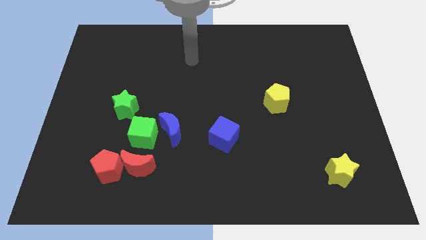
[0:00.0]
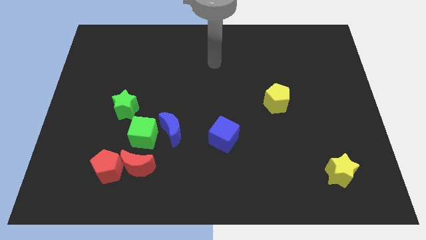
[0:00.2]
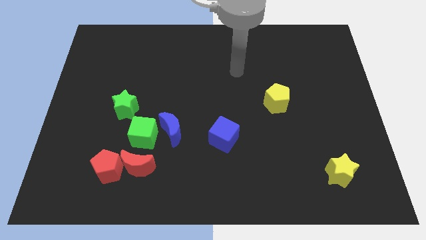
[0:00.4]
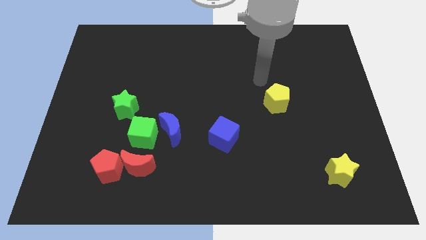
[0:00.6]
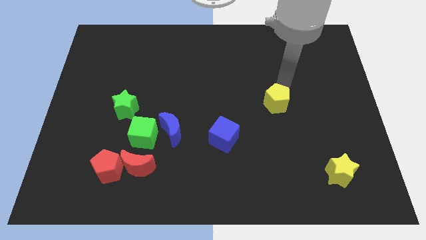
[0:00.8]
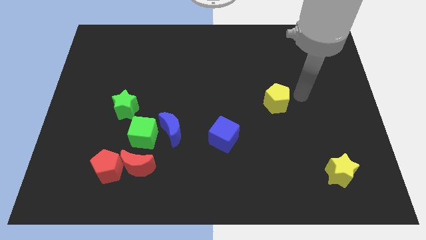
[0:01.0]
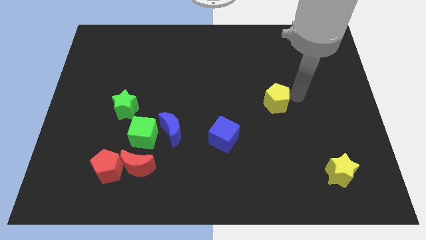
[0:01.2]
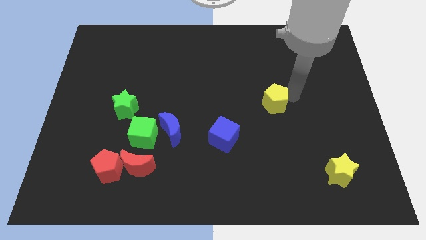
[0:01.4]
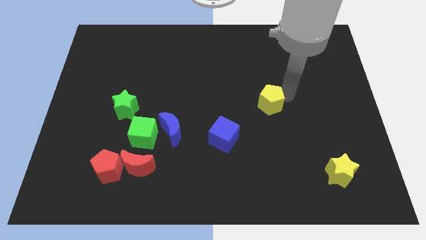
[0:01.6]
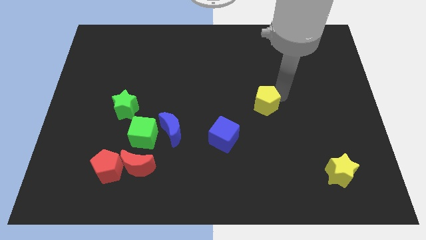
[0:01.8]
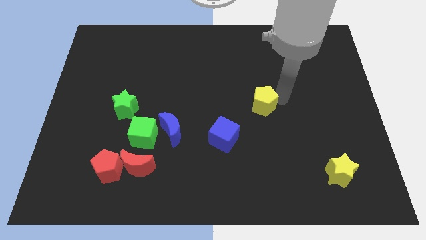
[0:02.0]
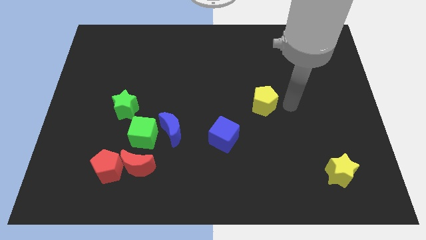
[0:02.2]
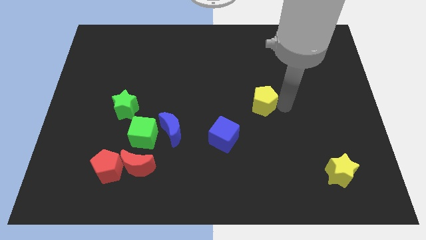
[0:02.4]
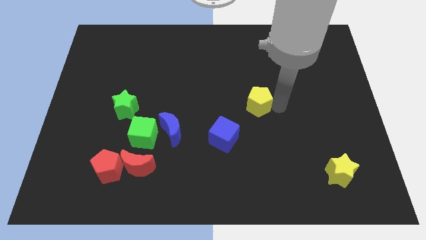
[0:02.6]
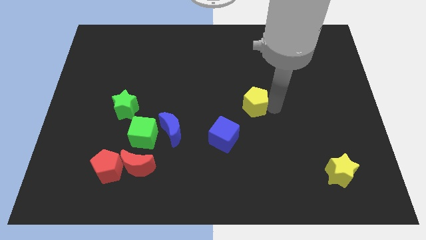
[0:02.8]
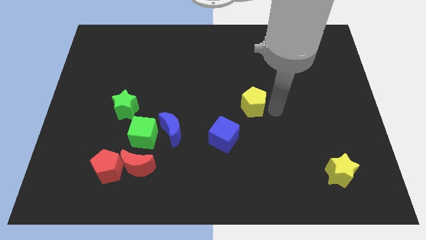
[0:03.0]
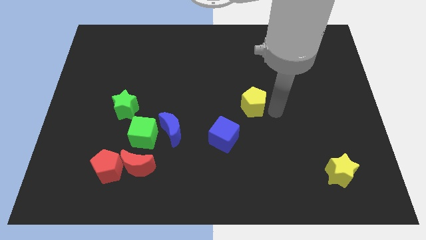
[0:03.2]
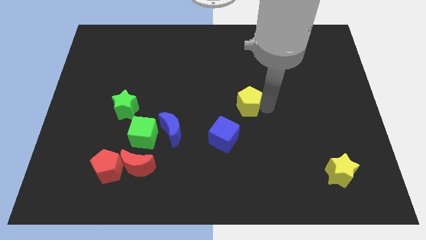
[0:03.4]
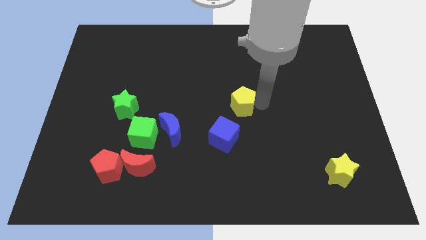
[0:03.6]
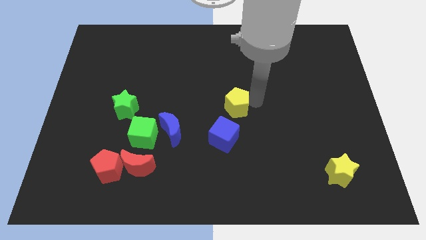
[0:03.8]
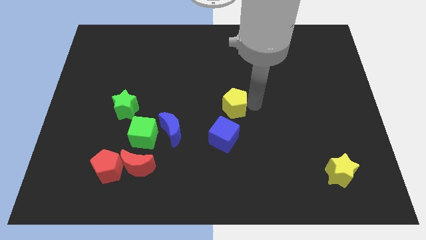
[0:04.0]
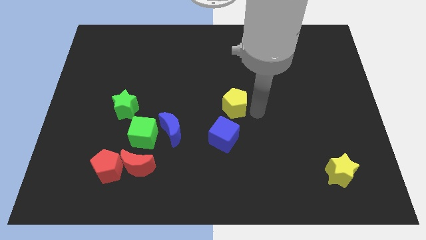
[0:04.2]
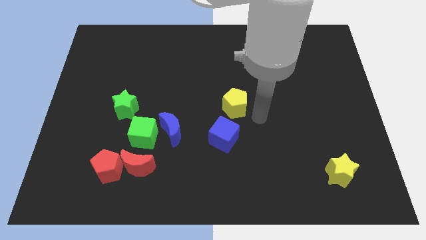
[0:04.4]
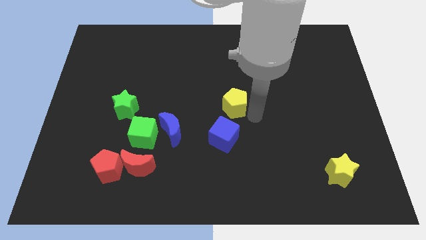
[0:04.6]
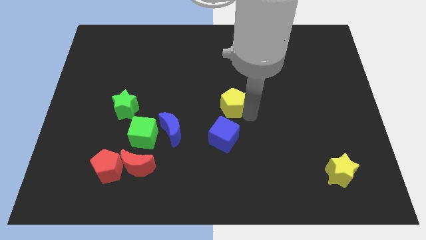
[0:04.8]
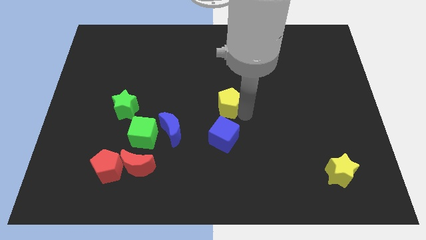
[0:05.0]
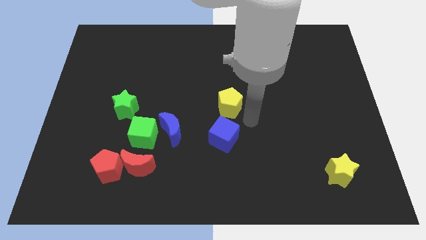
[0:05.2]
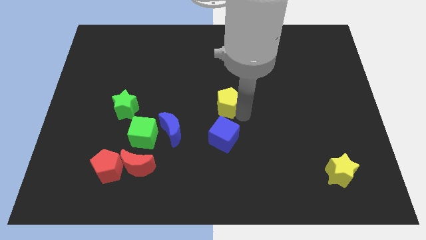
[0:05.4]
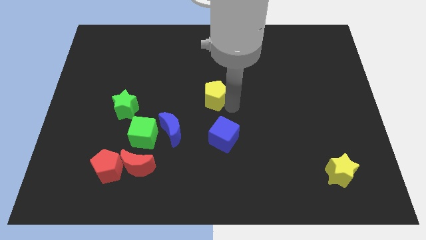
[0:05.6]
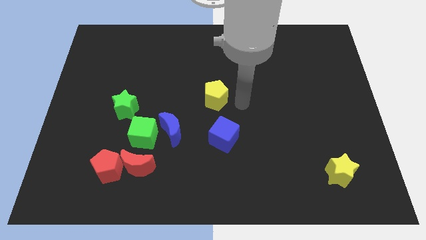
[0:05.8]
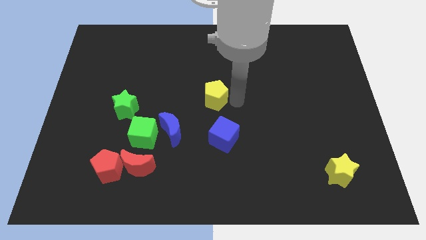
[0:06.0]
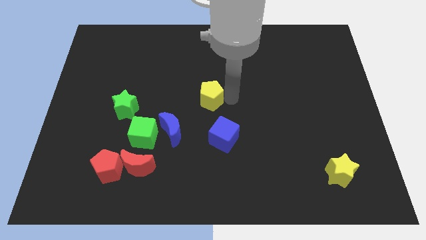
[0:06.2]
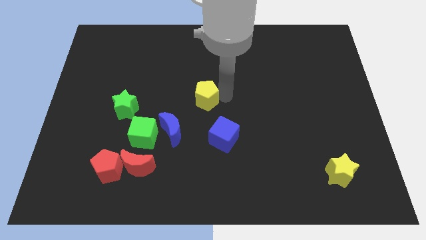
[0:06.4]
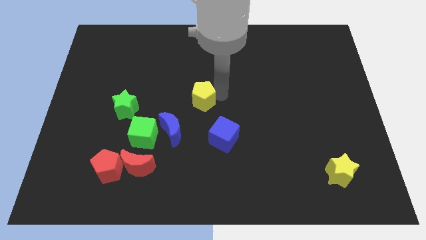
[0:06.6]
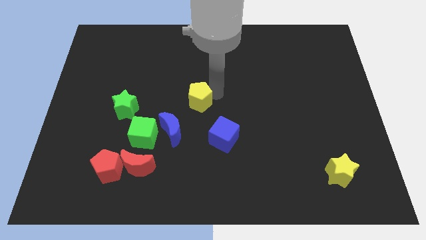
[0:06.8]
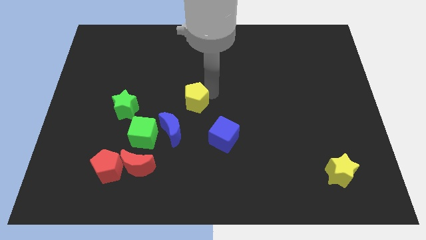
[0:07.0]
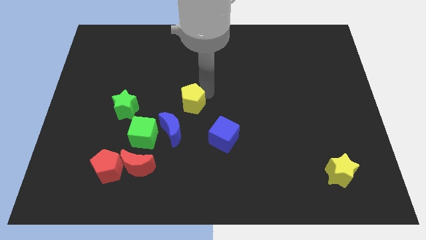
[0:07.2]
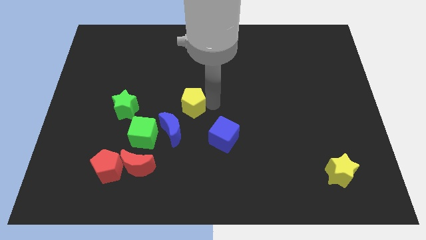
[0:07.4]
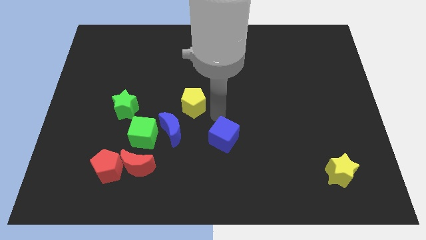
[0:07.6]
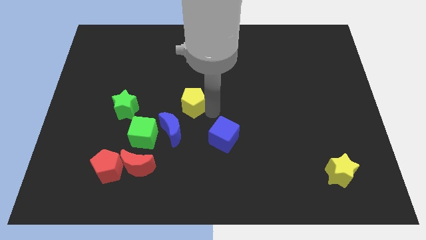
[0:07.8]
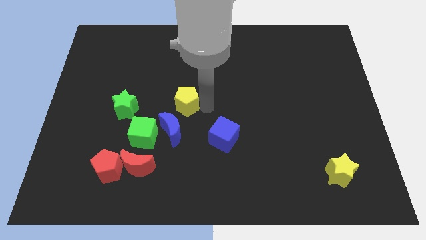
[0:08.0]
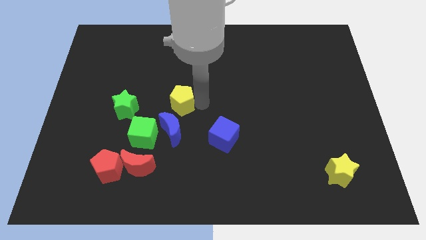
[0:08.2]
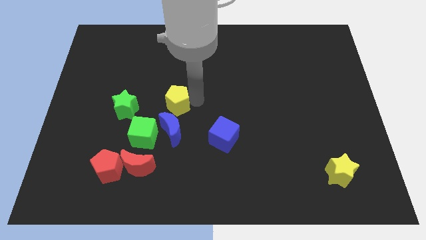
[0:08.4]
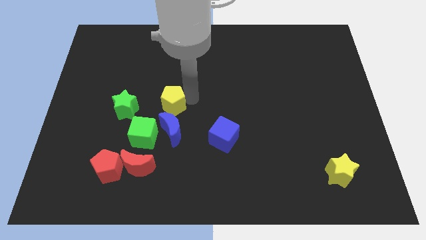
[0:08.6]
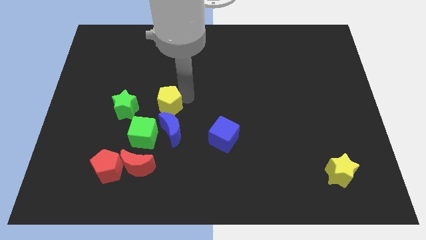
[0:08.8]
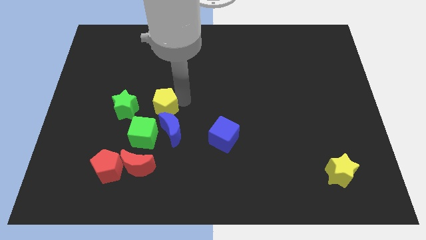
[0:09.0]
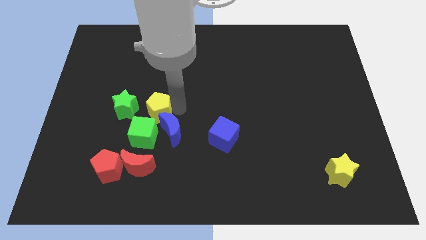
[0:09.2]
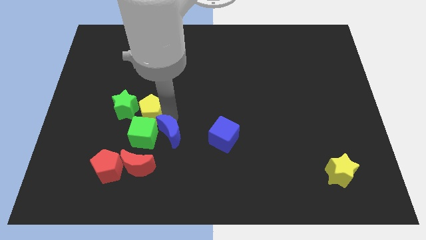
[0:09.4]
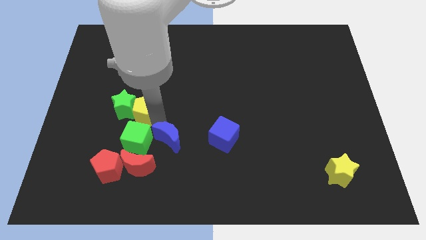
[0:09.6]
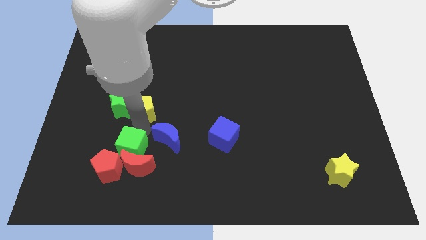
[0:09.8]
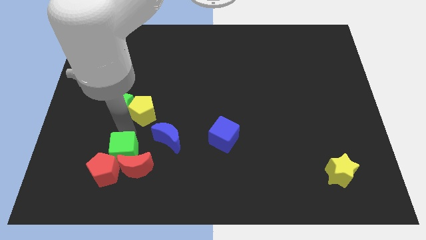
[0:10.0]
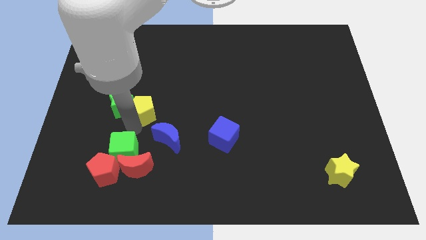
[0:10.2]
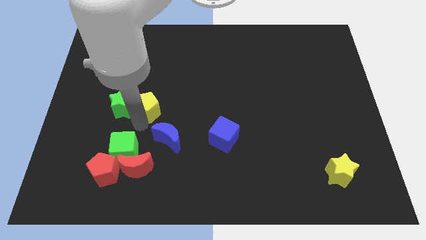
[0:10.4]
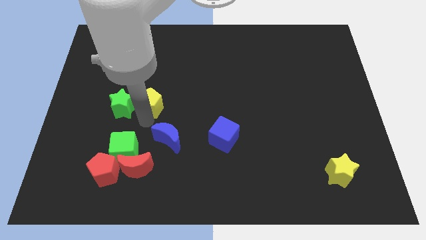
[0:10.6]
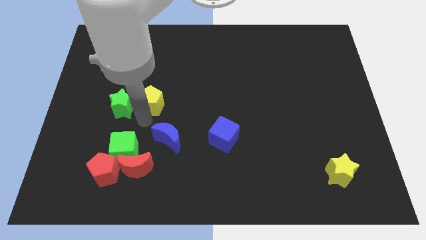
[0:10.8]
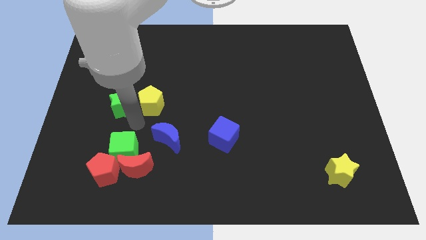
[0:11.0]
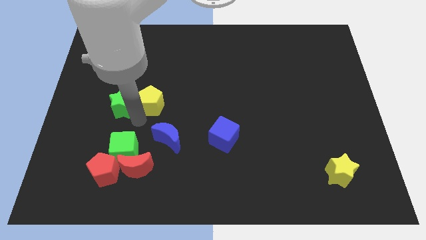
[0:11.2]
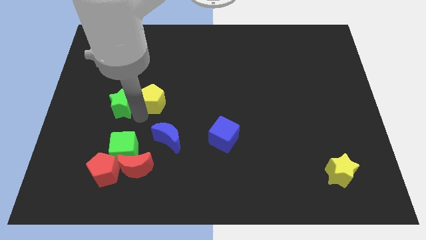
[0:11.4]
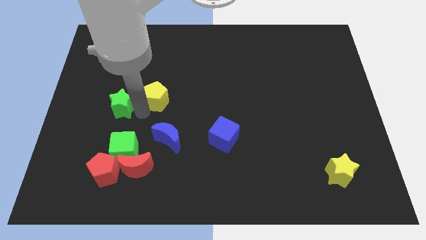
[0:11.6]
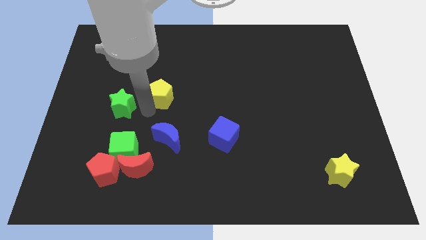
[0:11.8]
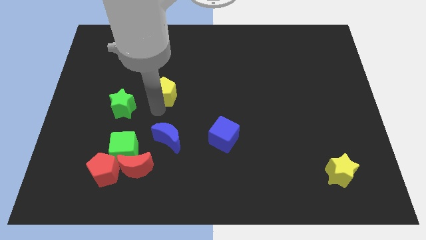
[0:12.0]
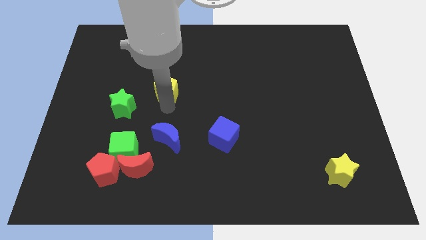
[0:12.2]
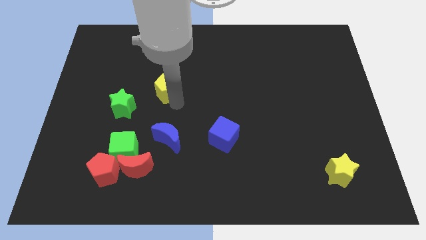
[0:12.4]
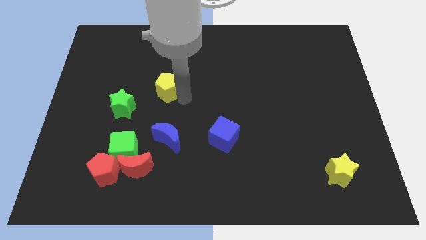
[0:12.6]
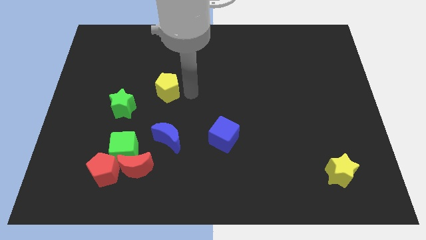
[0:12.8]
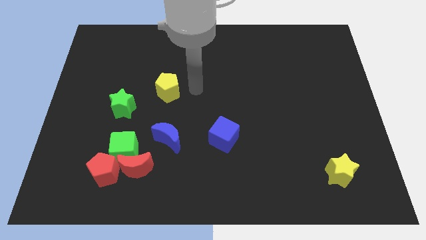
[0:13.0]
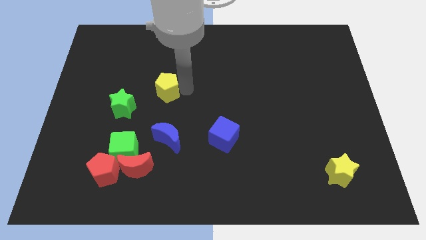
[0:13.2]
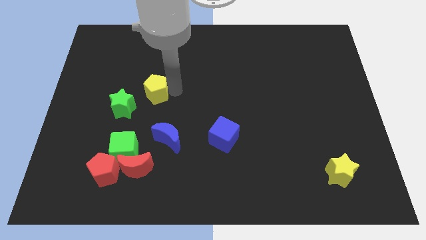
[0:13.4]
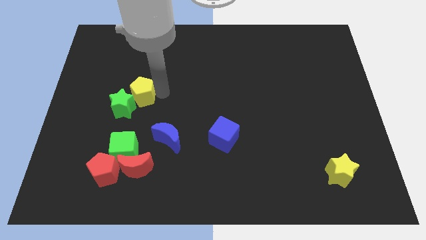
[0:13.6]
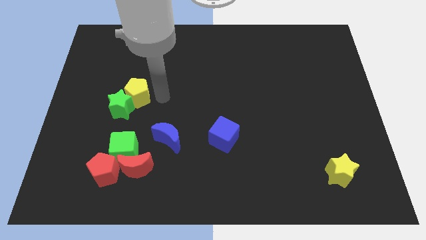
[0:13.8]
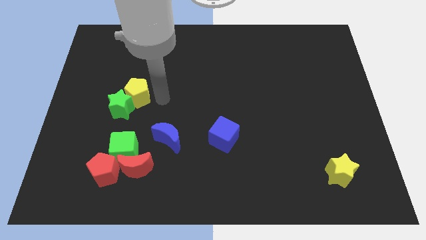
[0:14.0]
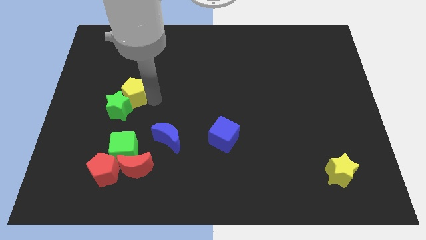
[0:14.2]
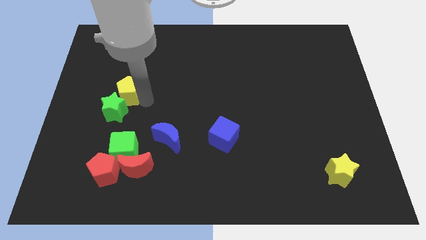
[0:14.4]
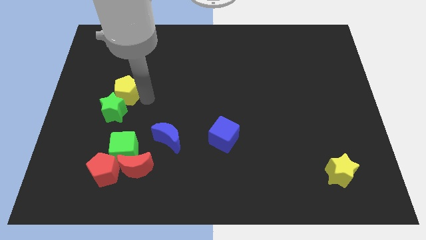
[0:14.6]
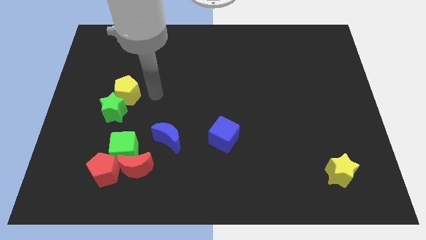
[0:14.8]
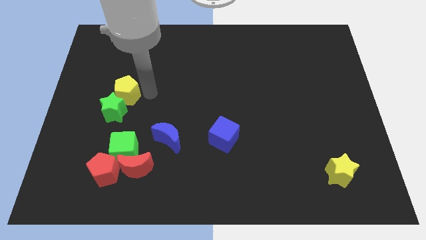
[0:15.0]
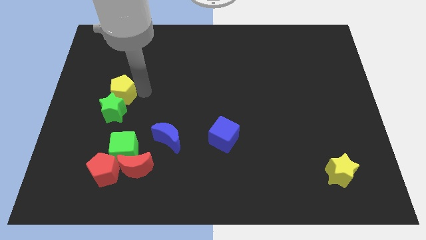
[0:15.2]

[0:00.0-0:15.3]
push the yellow pentagon diagonally up and to the left of the green star

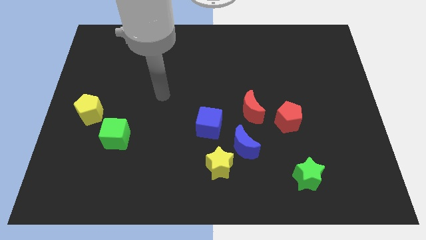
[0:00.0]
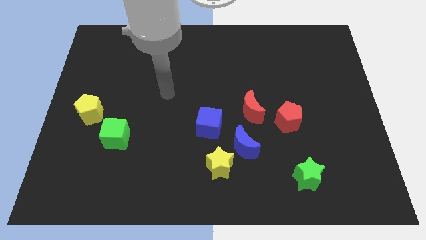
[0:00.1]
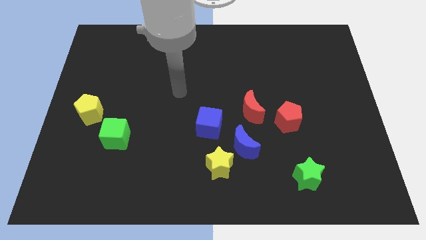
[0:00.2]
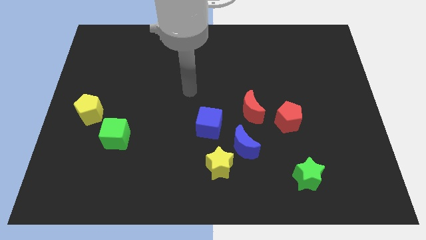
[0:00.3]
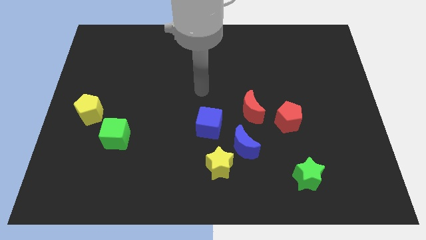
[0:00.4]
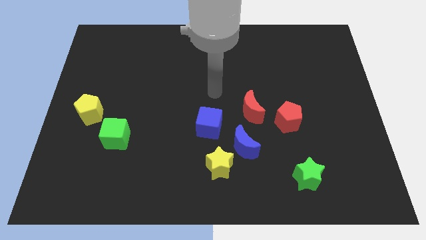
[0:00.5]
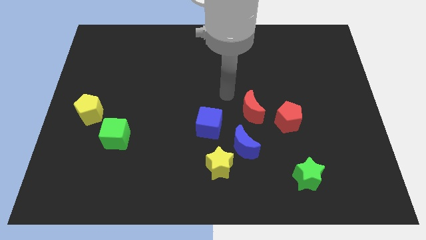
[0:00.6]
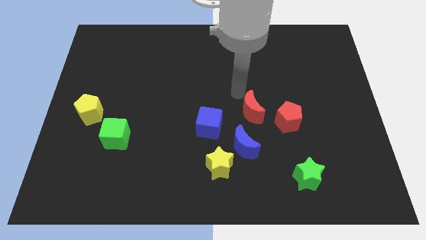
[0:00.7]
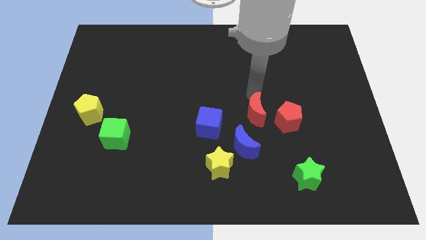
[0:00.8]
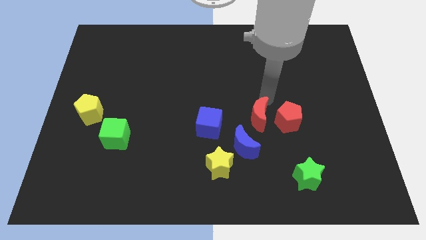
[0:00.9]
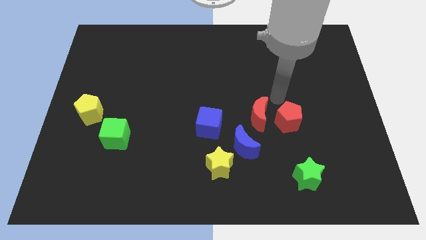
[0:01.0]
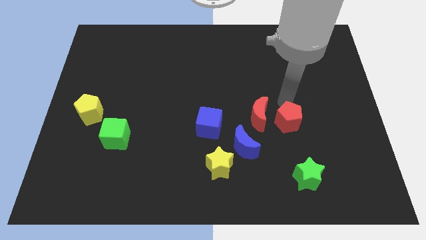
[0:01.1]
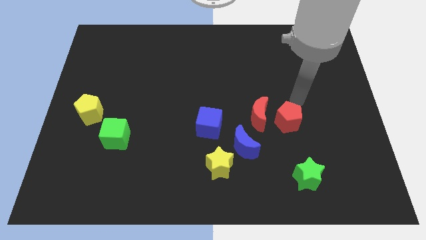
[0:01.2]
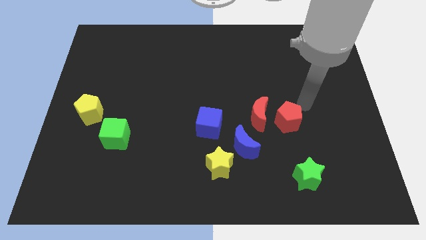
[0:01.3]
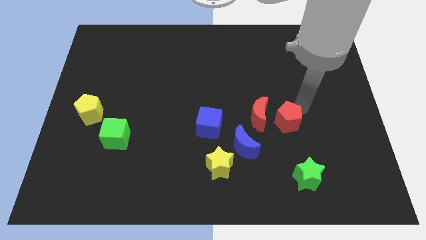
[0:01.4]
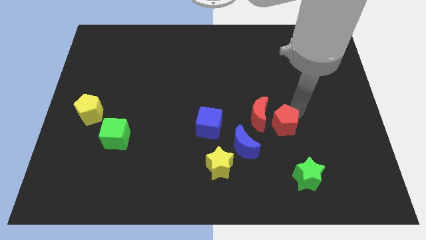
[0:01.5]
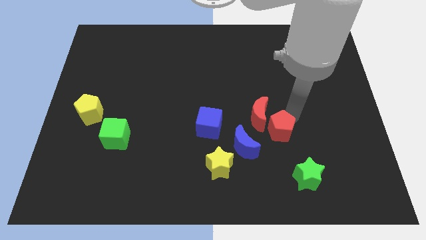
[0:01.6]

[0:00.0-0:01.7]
slide the red pentagon to the bottom of the red moon
